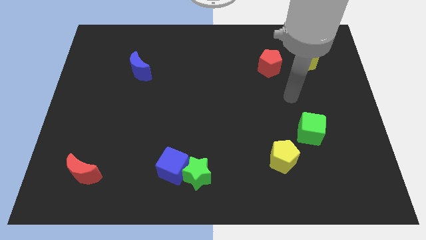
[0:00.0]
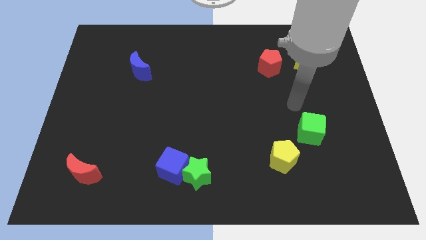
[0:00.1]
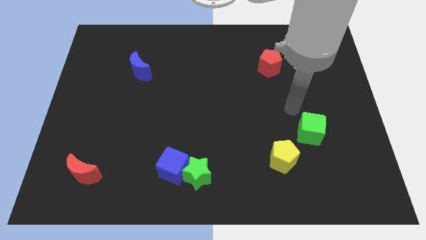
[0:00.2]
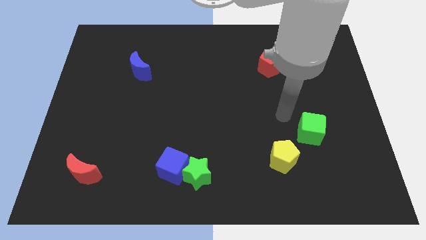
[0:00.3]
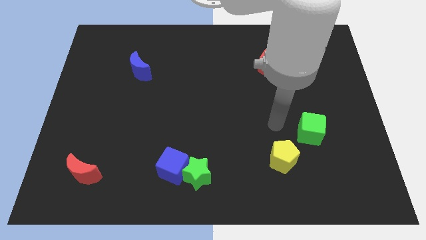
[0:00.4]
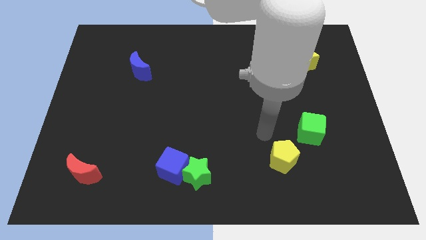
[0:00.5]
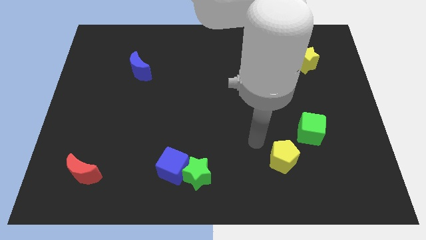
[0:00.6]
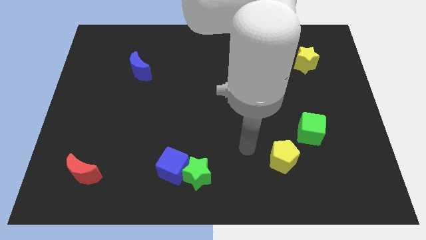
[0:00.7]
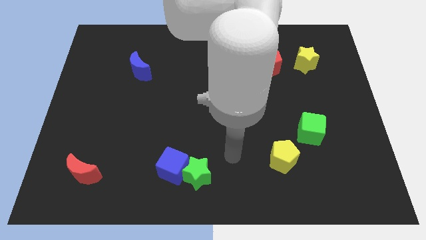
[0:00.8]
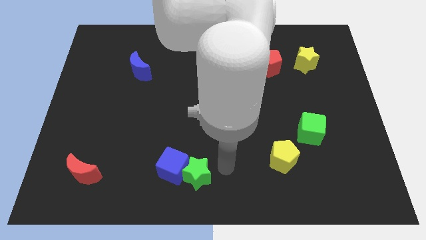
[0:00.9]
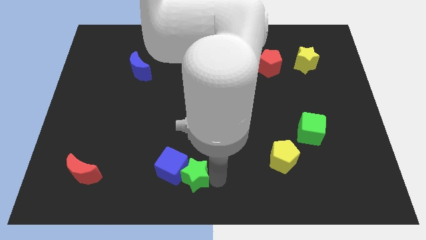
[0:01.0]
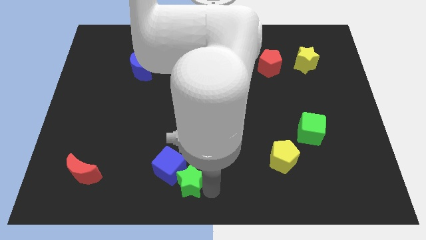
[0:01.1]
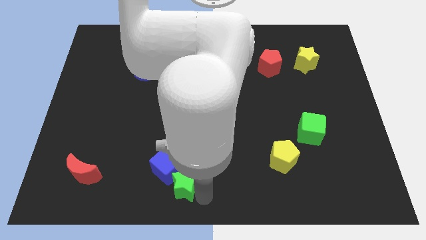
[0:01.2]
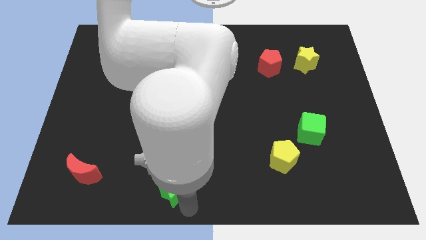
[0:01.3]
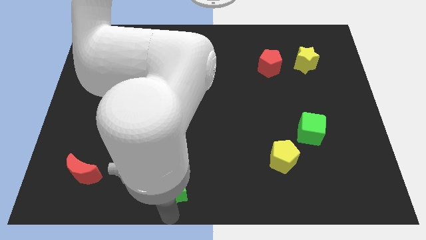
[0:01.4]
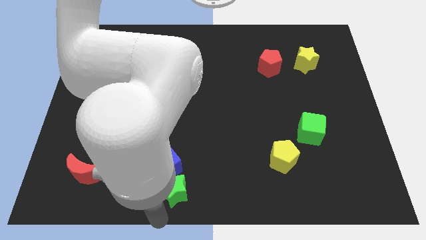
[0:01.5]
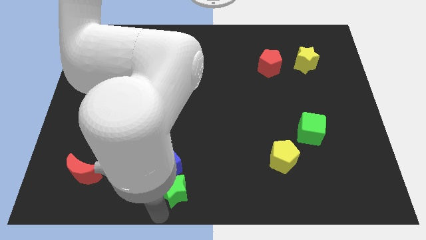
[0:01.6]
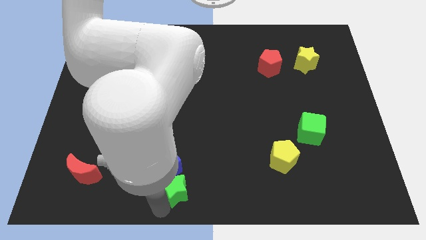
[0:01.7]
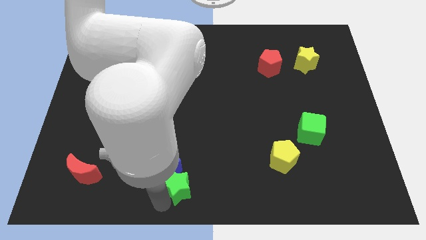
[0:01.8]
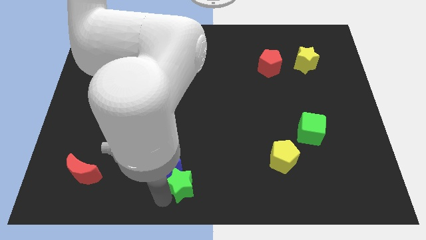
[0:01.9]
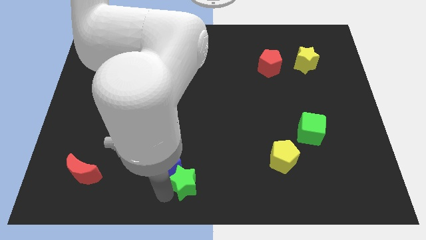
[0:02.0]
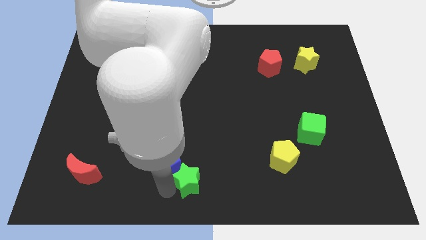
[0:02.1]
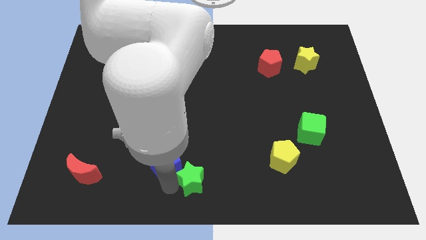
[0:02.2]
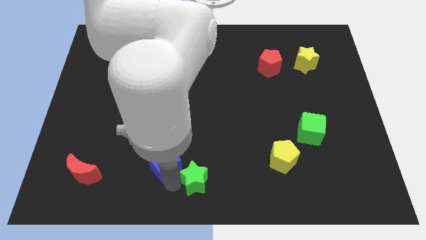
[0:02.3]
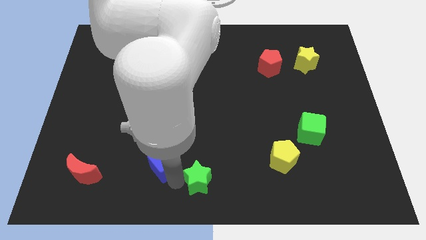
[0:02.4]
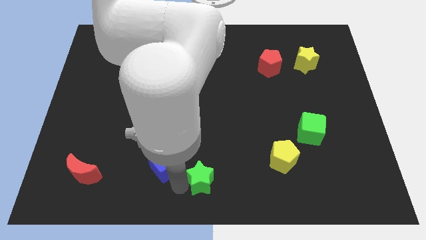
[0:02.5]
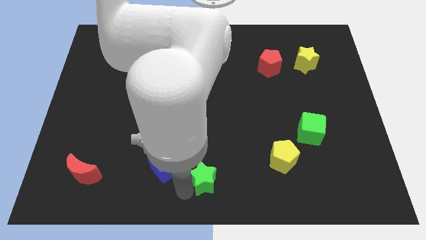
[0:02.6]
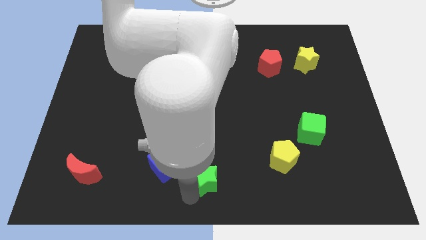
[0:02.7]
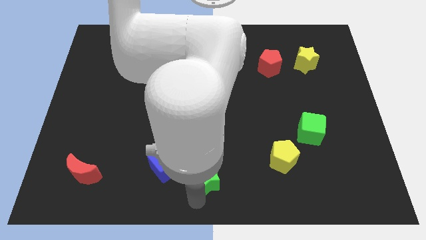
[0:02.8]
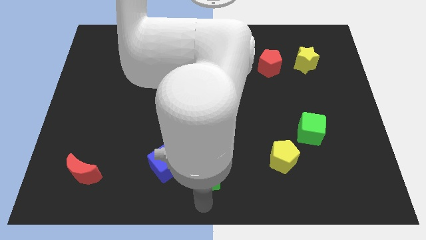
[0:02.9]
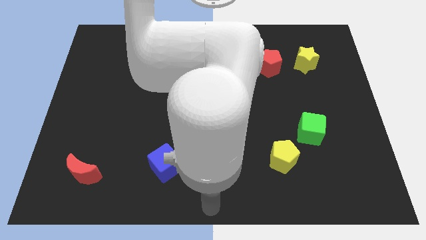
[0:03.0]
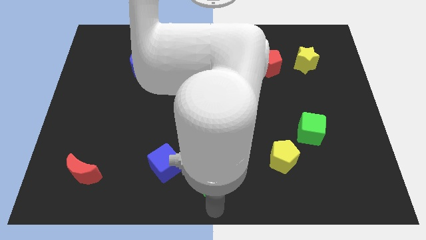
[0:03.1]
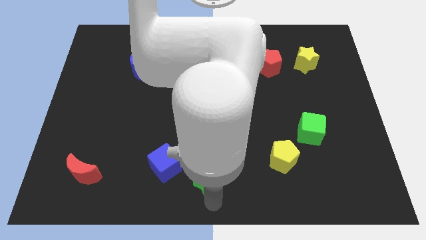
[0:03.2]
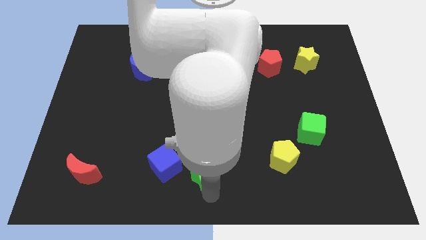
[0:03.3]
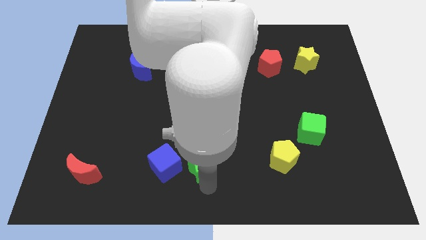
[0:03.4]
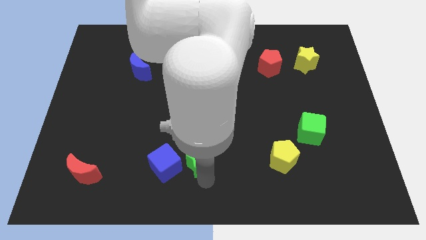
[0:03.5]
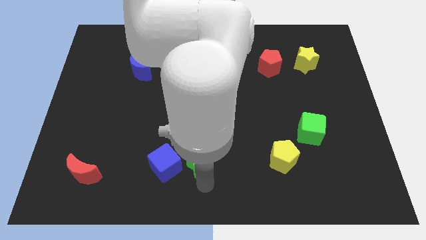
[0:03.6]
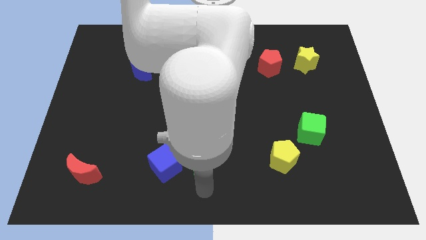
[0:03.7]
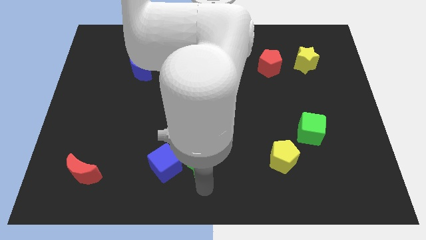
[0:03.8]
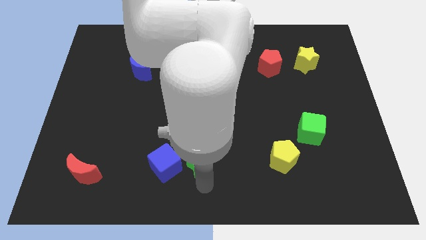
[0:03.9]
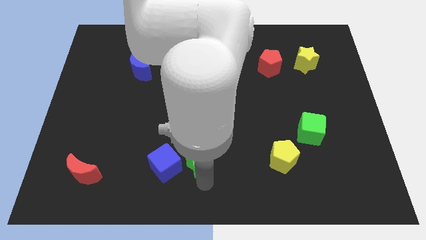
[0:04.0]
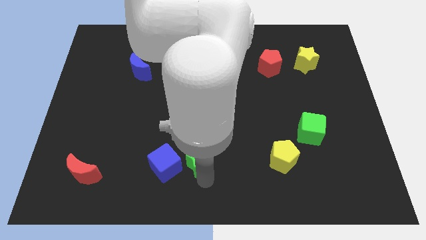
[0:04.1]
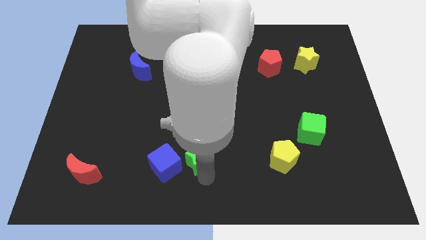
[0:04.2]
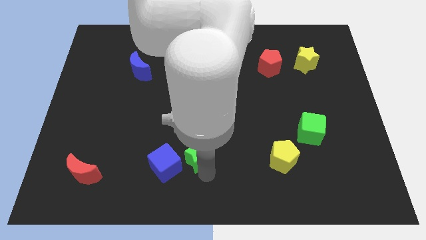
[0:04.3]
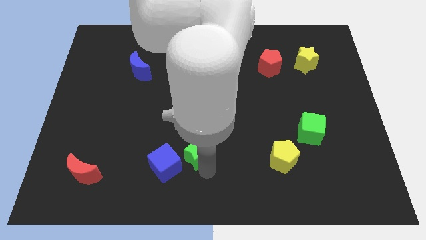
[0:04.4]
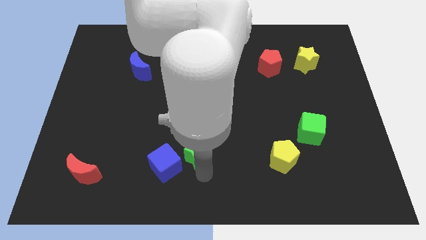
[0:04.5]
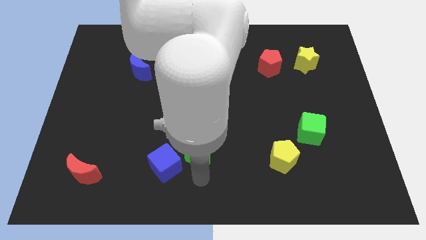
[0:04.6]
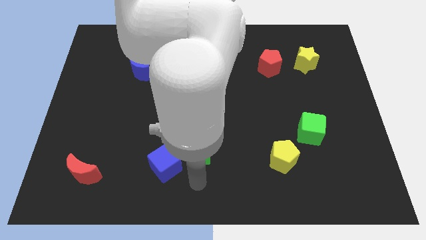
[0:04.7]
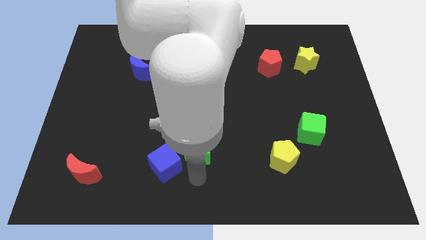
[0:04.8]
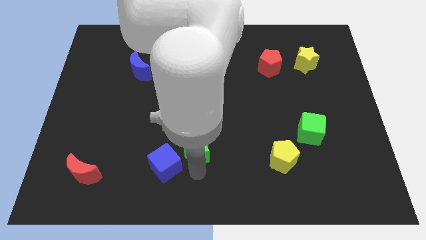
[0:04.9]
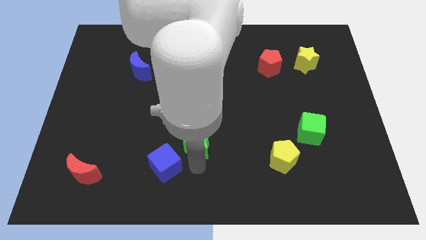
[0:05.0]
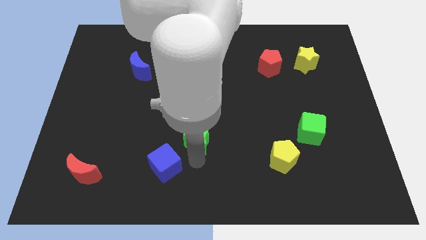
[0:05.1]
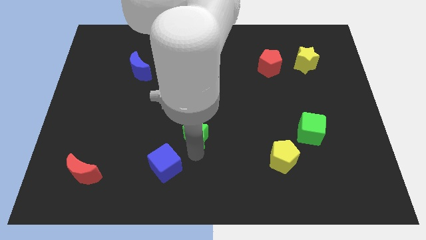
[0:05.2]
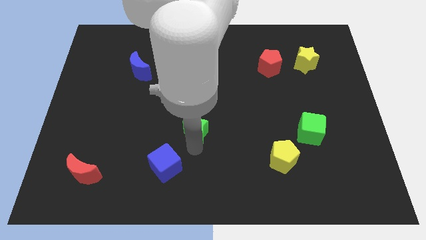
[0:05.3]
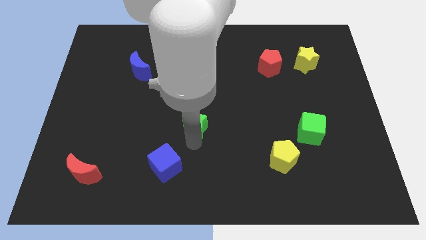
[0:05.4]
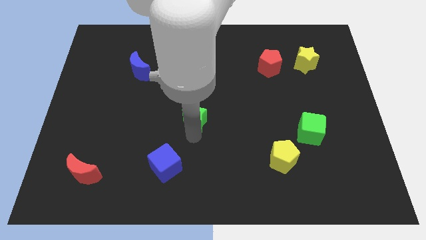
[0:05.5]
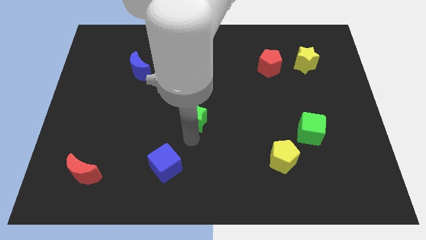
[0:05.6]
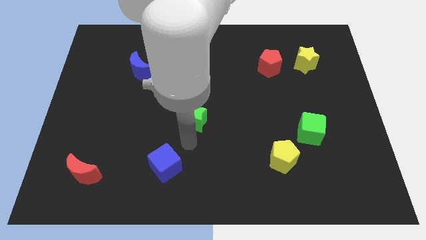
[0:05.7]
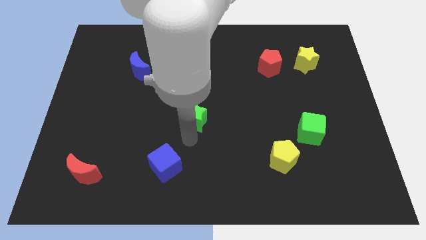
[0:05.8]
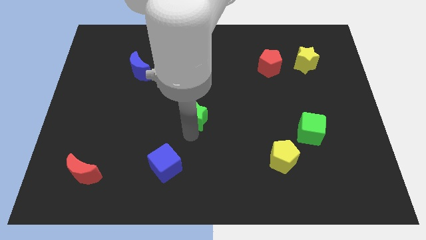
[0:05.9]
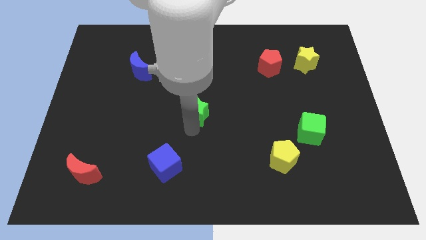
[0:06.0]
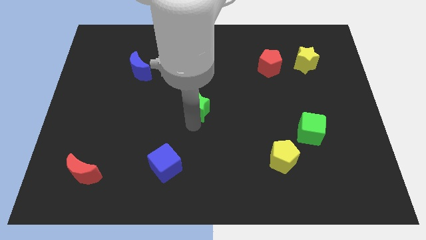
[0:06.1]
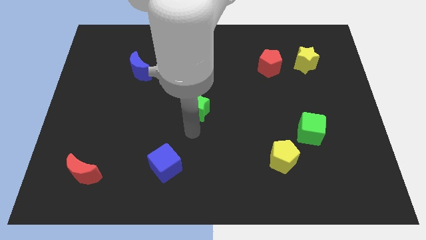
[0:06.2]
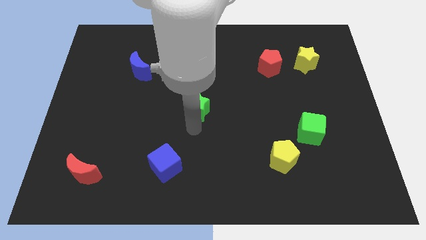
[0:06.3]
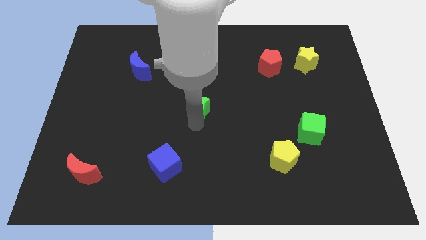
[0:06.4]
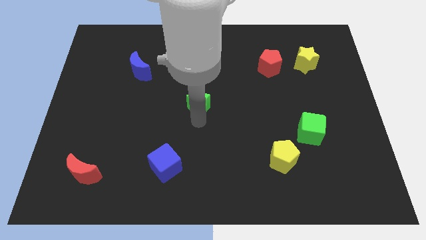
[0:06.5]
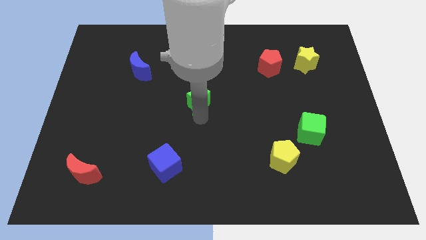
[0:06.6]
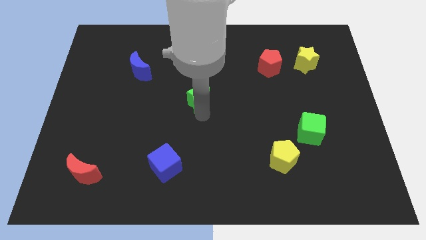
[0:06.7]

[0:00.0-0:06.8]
push the green star upwards

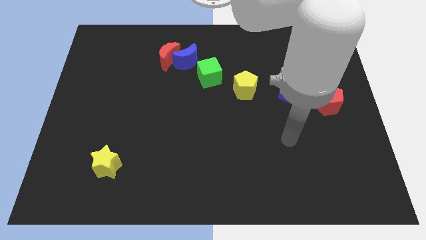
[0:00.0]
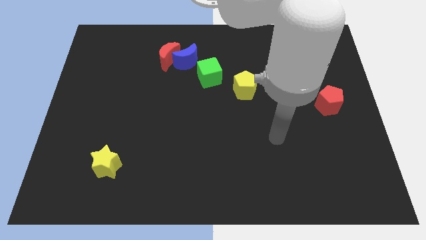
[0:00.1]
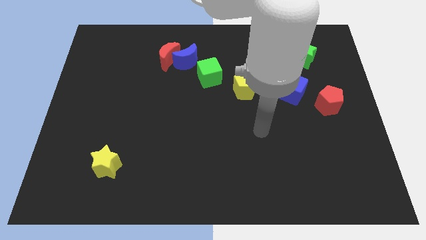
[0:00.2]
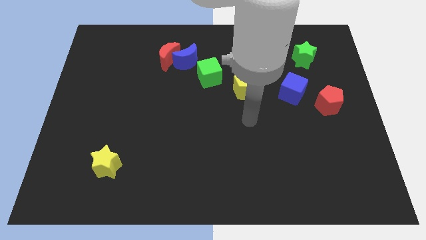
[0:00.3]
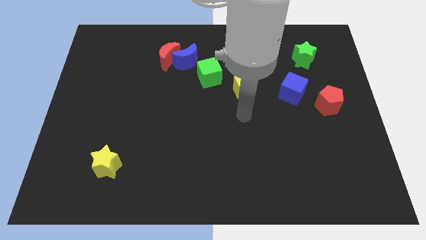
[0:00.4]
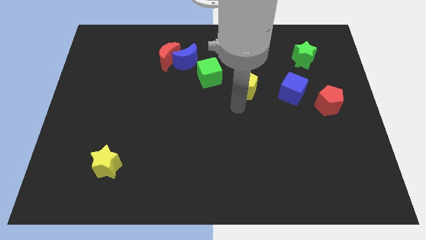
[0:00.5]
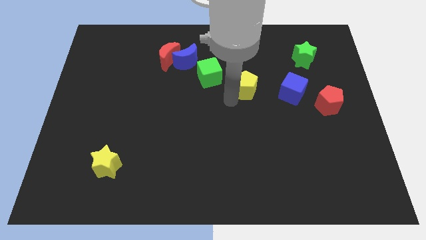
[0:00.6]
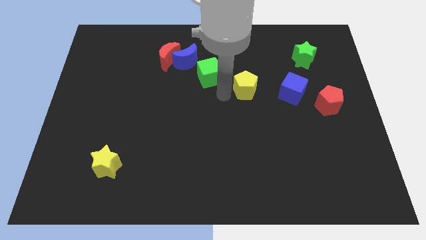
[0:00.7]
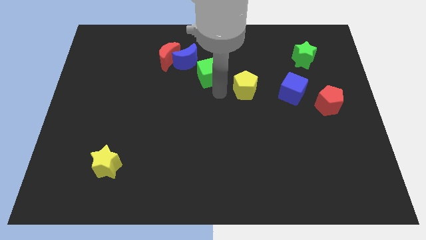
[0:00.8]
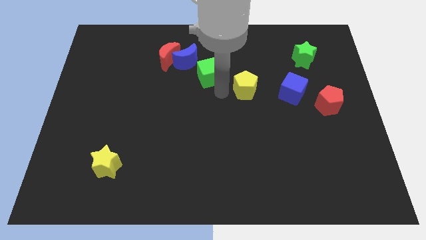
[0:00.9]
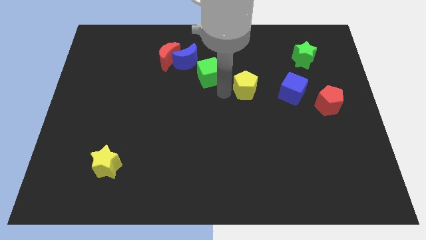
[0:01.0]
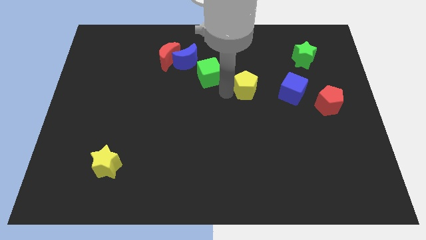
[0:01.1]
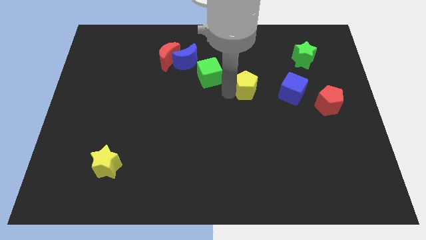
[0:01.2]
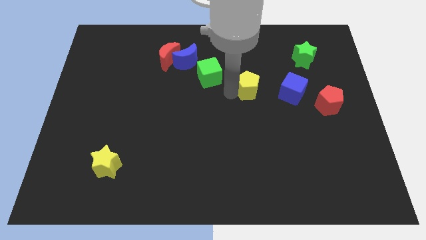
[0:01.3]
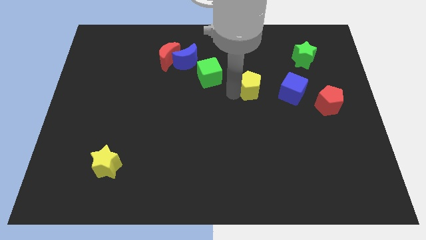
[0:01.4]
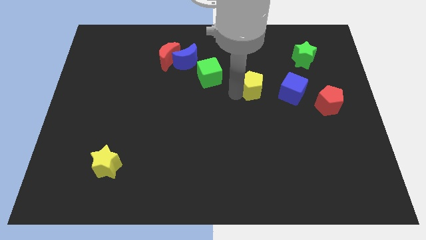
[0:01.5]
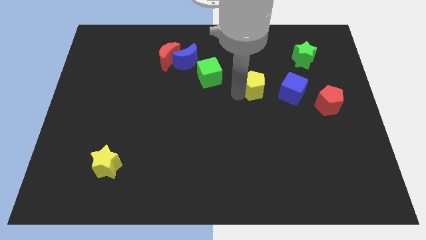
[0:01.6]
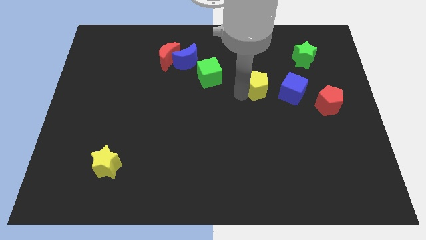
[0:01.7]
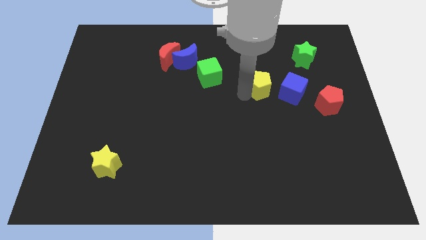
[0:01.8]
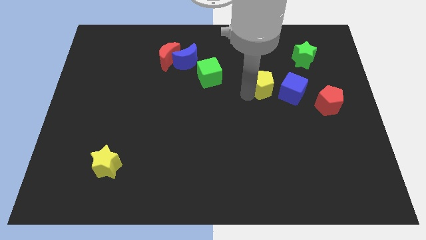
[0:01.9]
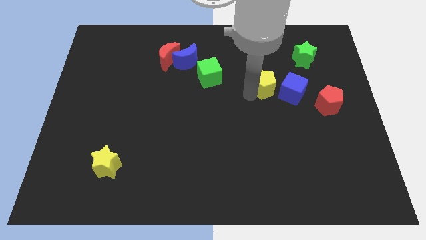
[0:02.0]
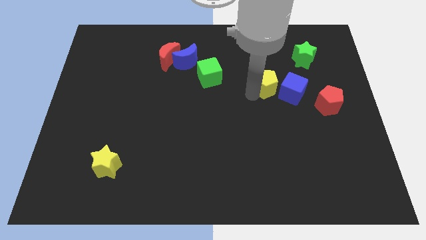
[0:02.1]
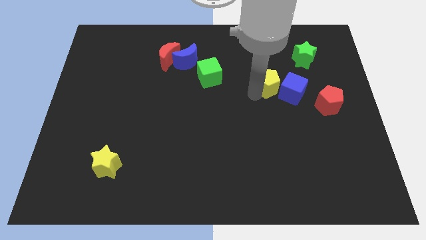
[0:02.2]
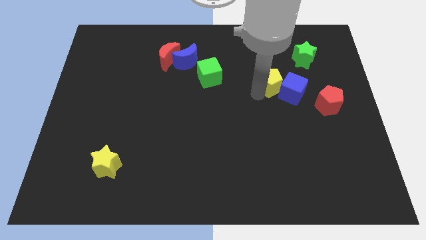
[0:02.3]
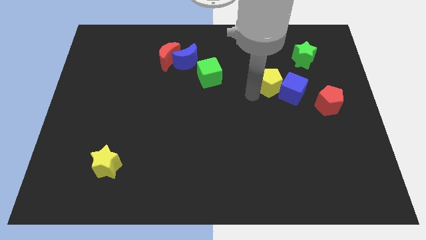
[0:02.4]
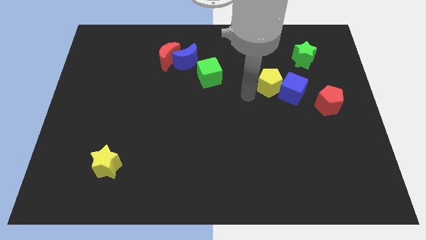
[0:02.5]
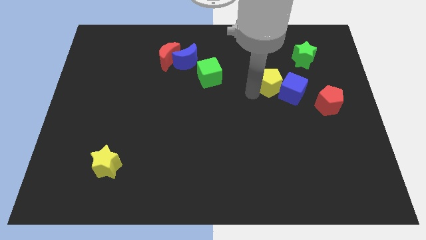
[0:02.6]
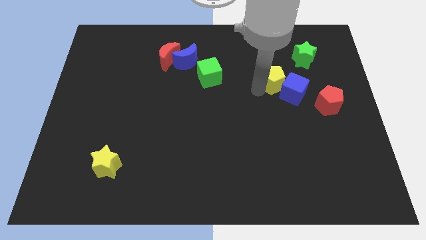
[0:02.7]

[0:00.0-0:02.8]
slide the yellow pentagon a little right
